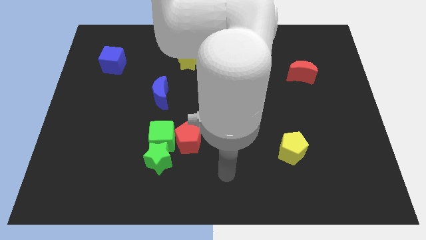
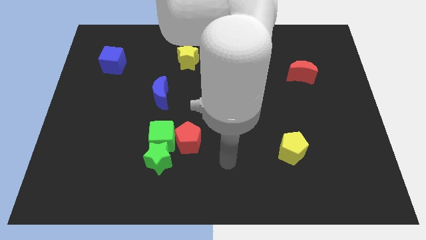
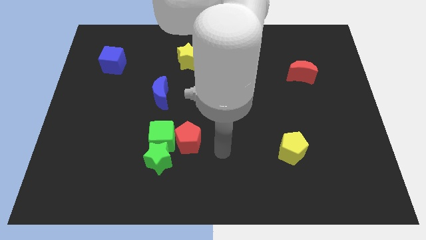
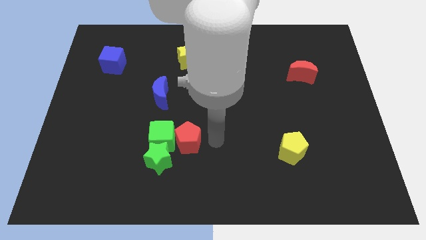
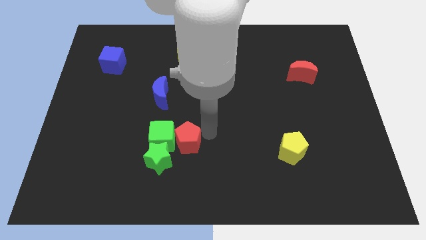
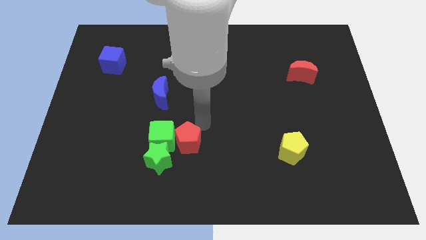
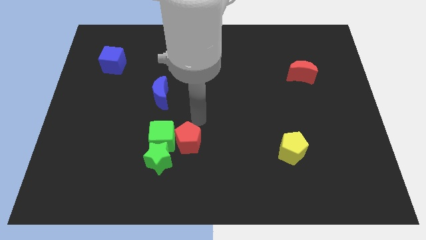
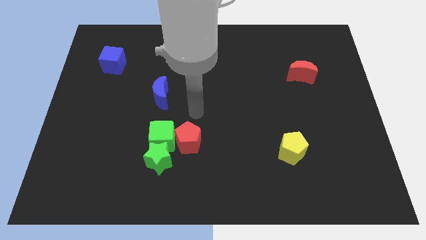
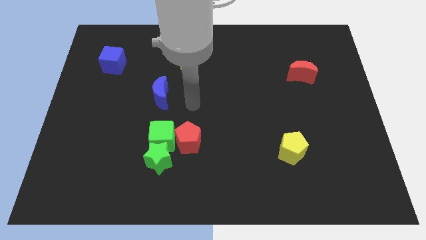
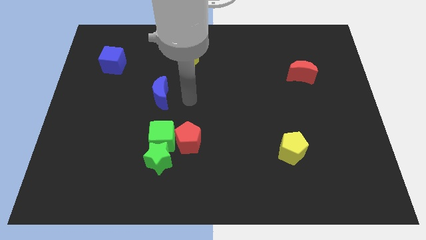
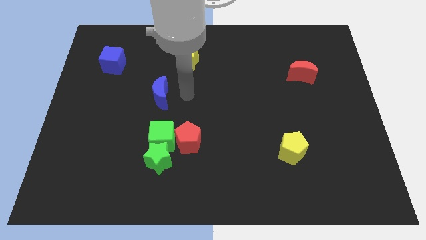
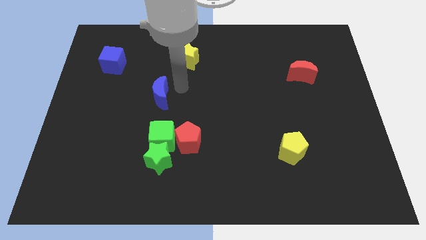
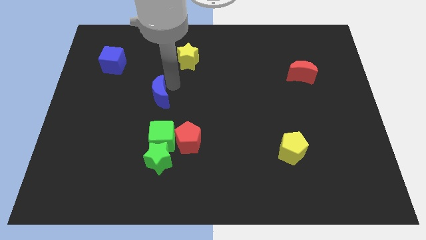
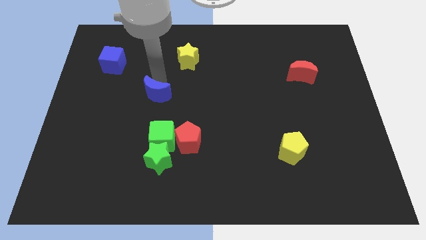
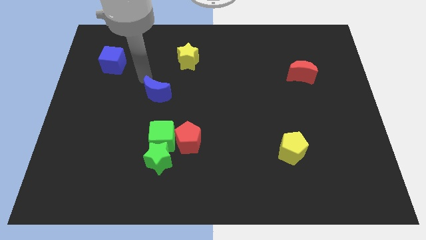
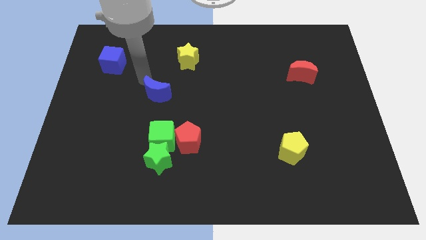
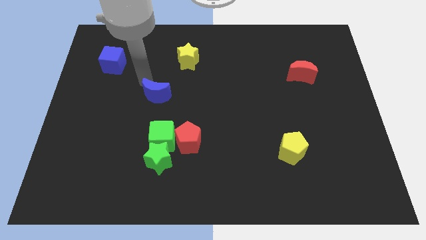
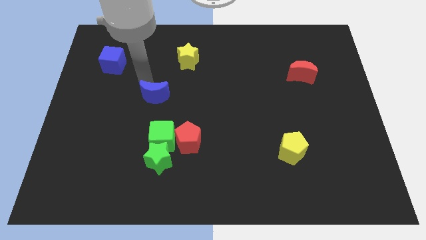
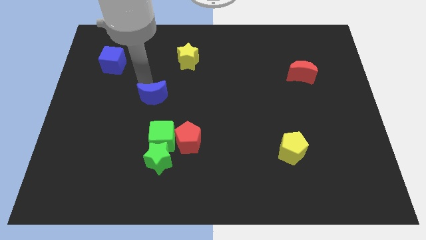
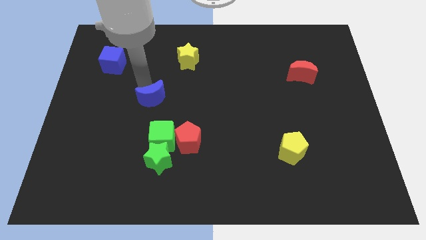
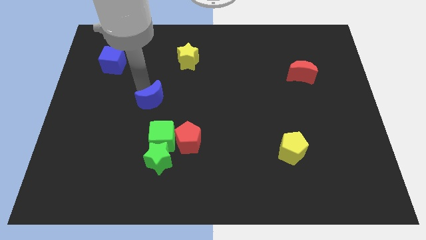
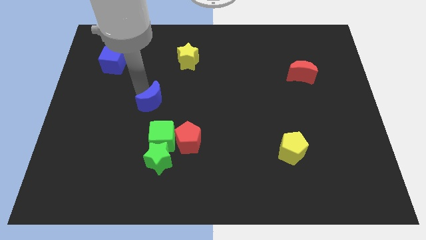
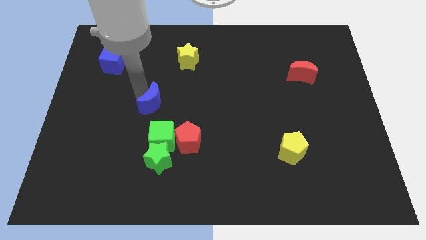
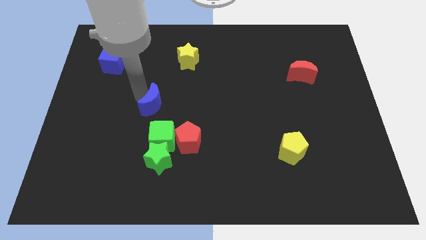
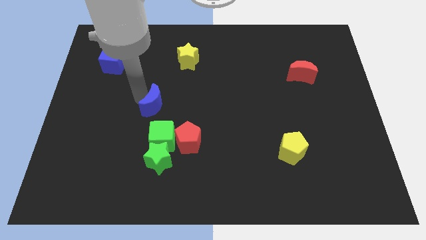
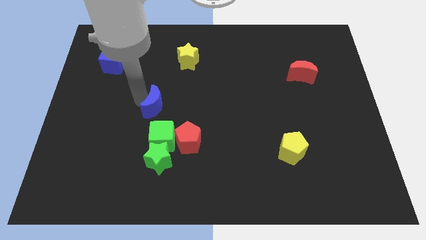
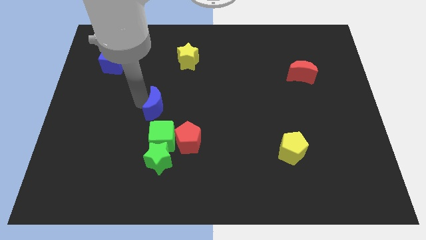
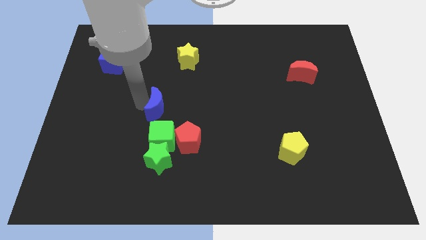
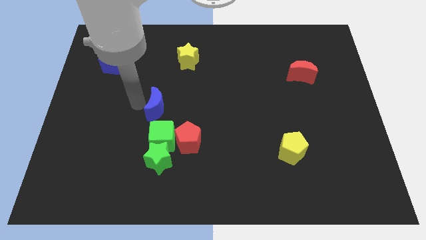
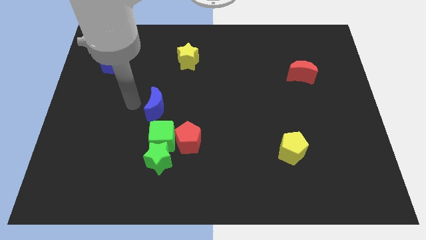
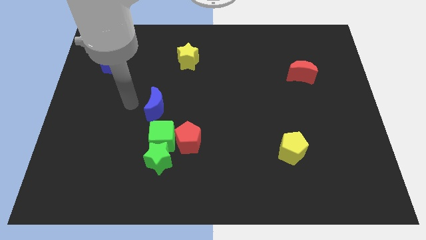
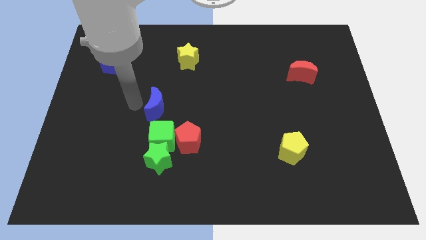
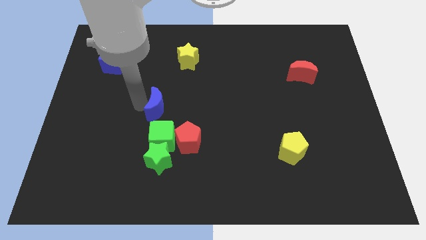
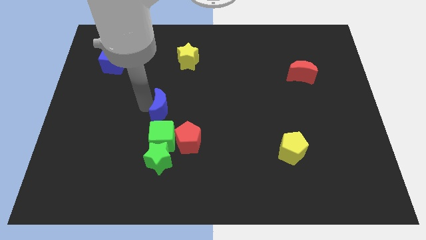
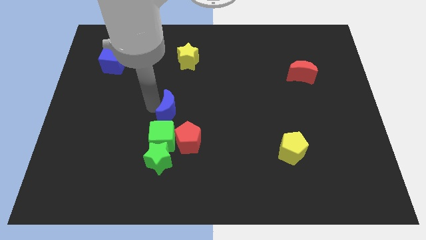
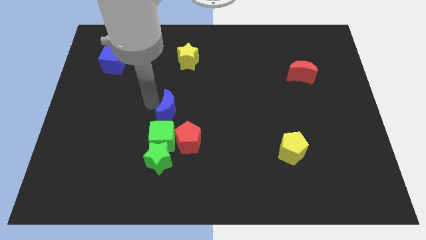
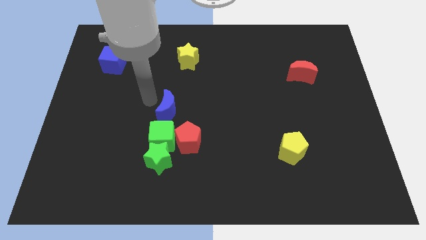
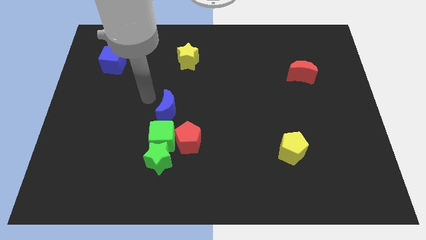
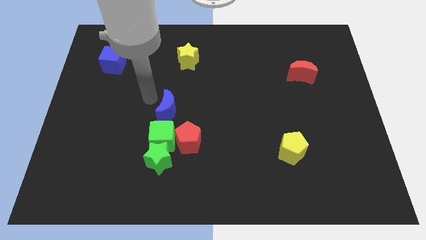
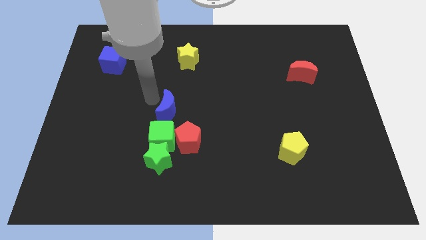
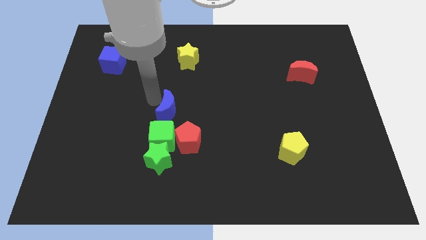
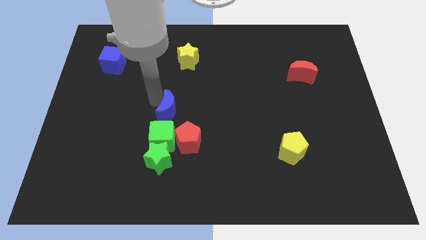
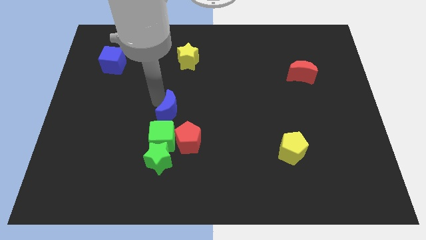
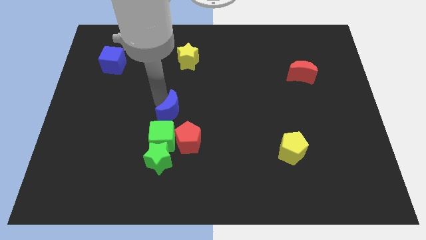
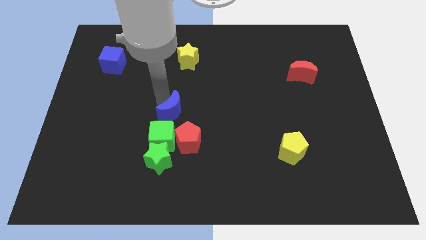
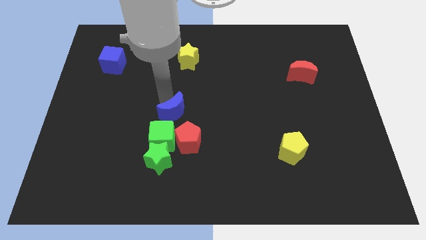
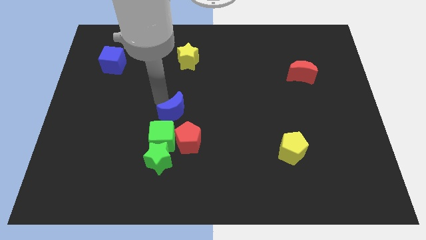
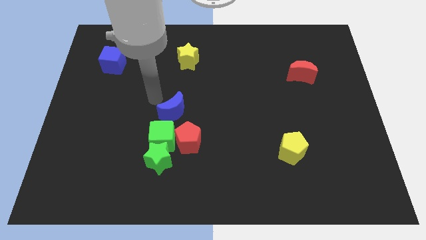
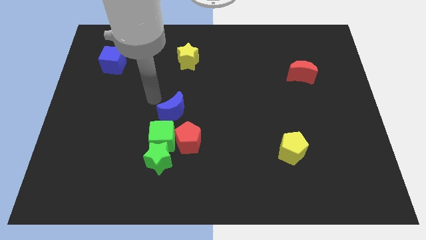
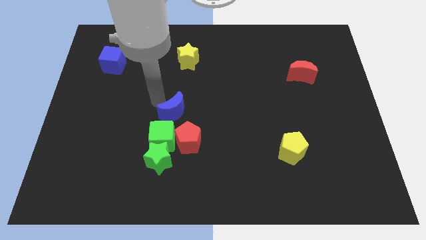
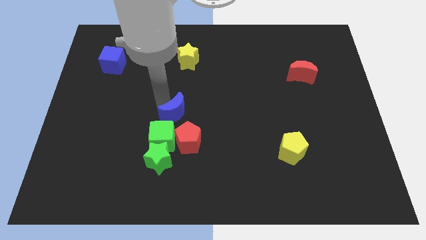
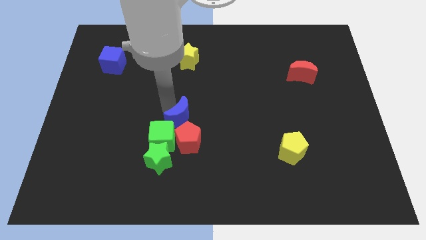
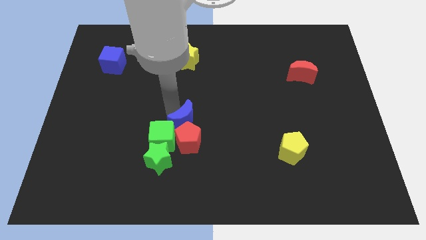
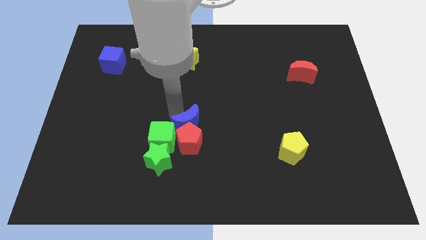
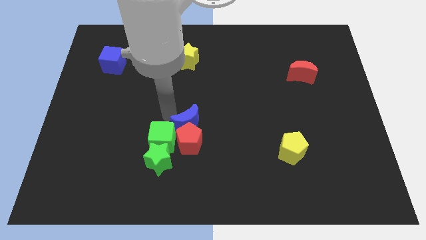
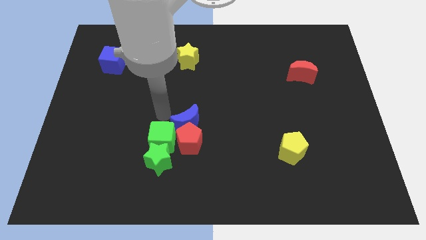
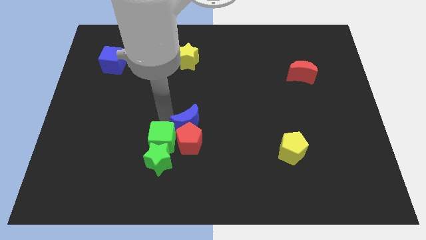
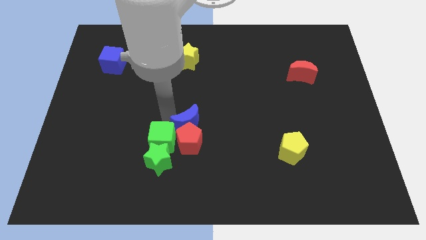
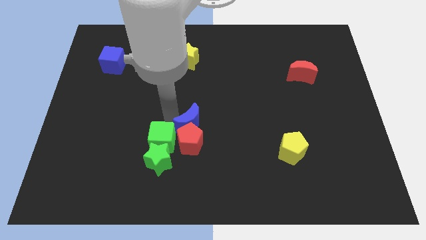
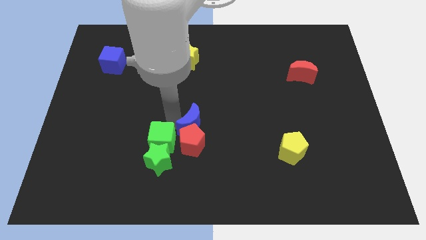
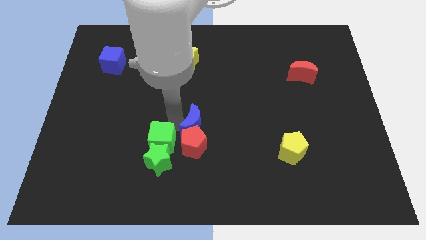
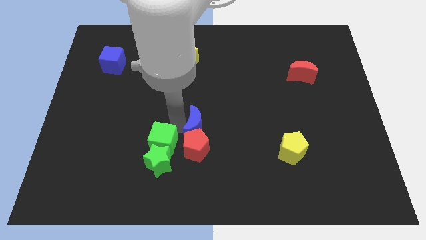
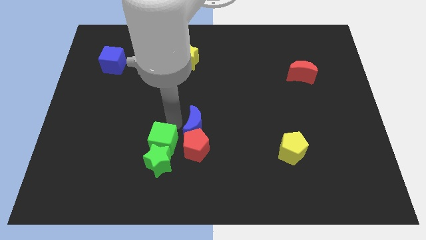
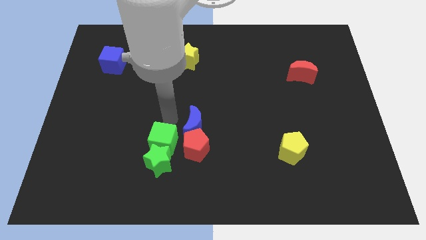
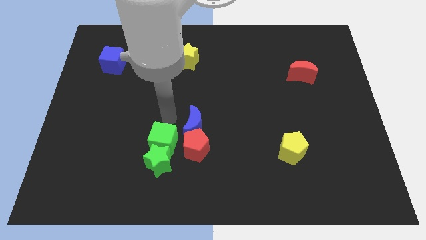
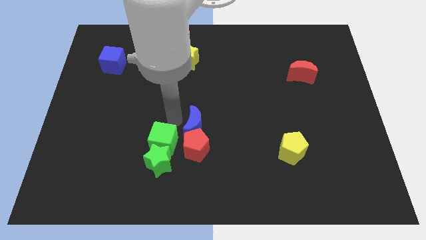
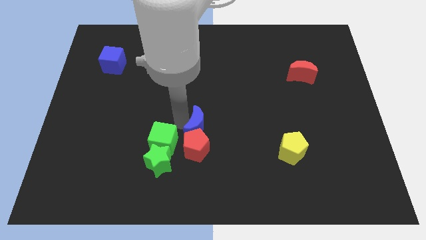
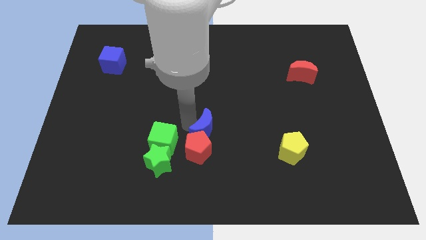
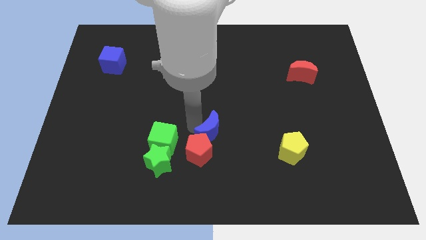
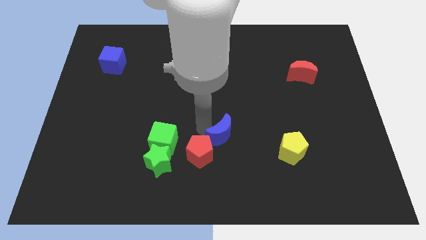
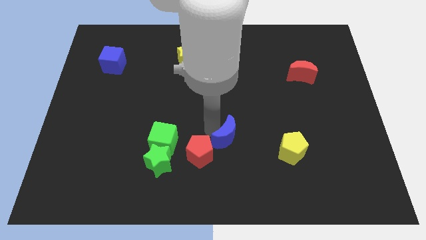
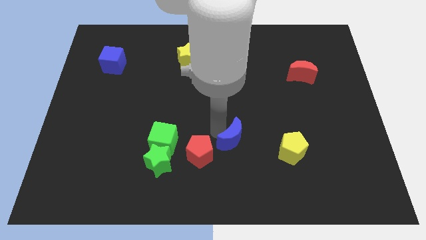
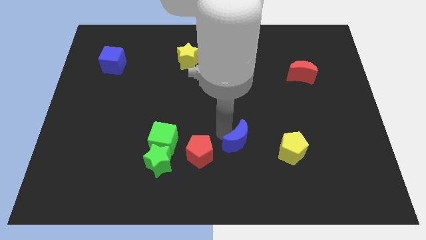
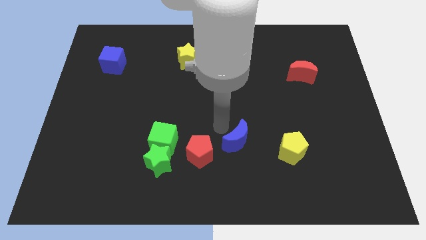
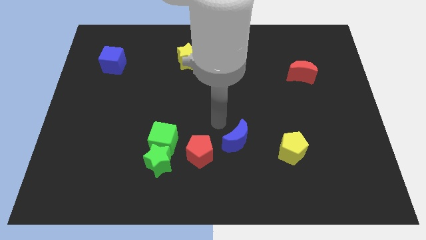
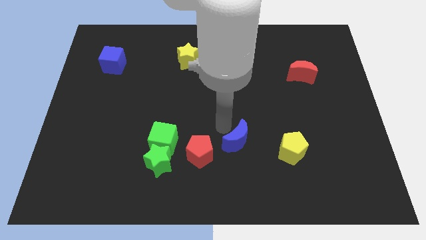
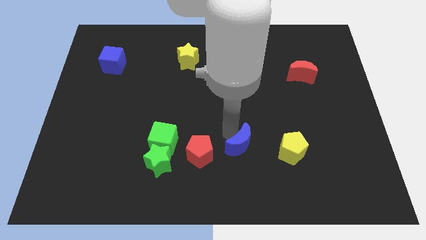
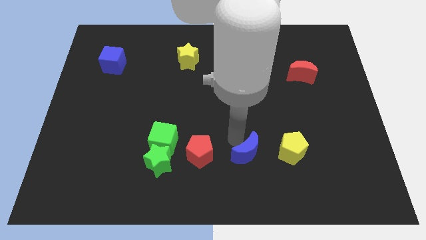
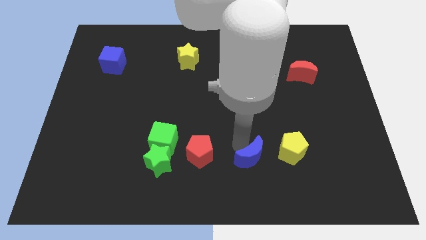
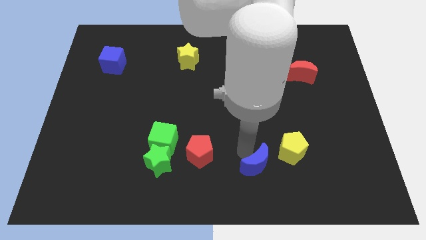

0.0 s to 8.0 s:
slide the blue moon to the bottom left of the yellow pentagon

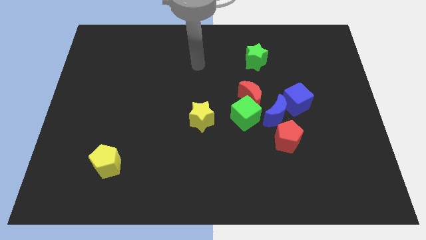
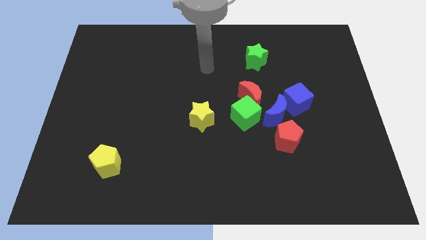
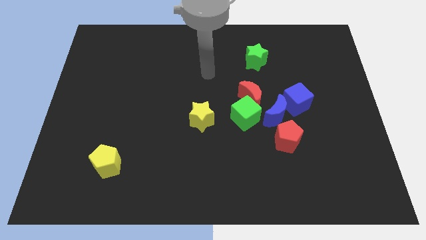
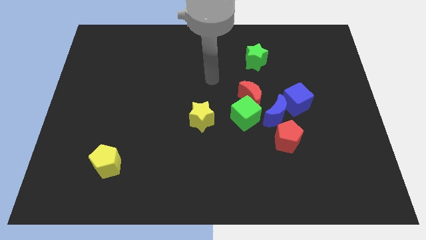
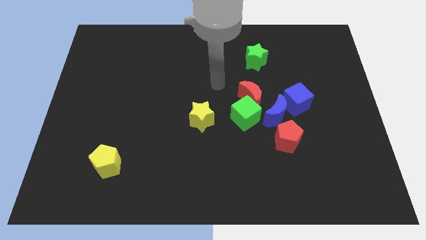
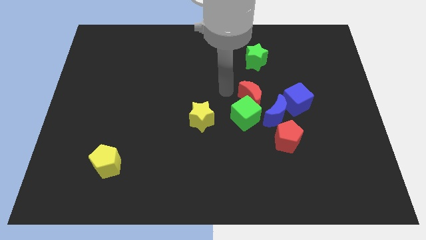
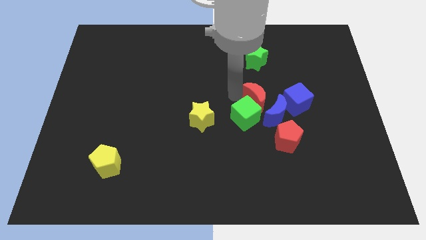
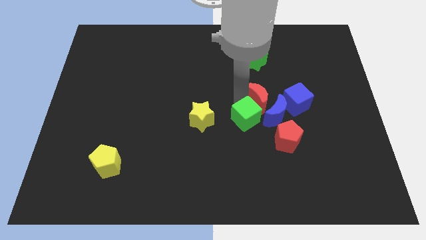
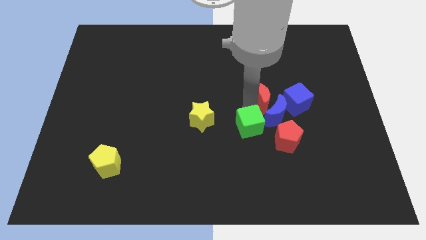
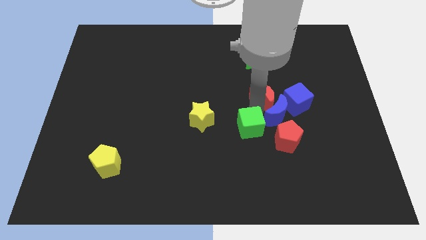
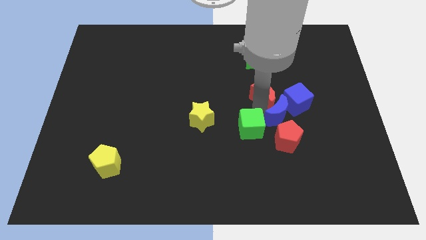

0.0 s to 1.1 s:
push the blue moon to the bottom side of the blue cube
